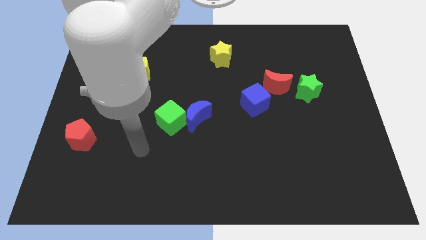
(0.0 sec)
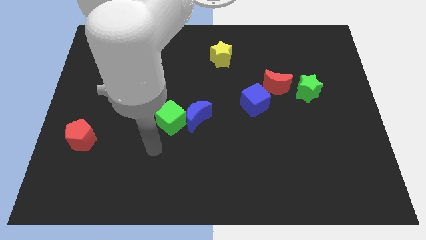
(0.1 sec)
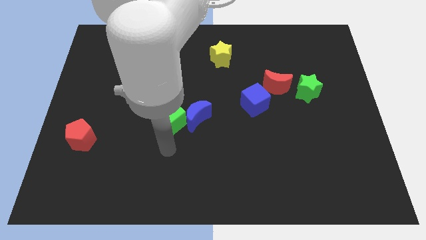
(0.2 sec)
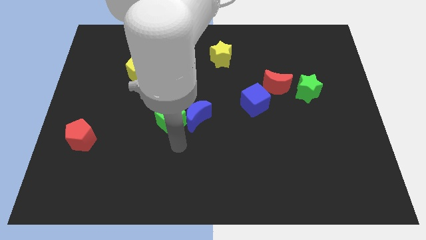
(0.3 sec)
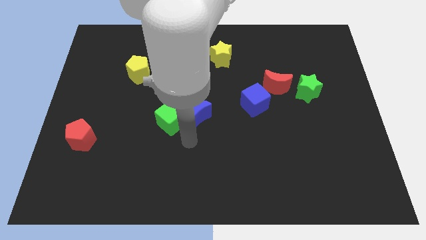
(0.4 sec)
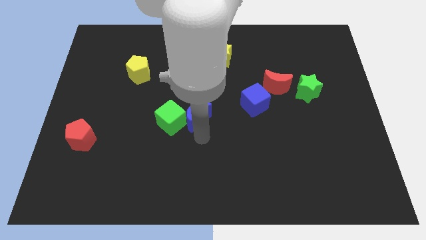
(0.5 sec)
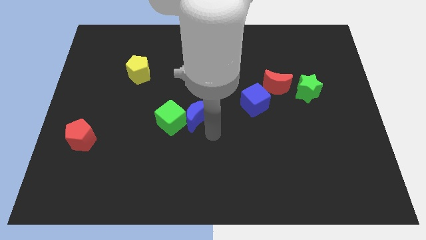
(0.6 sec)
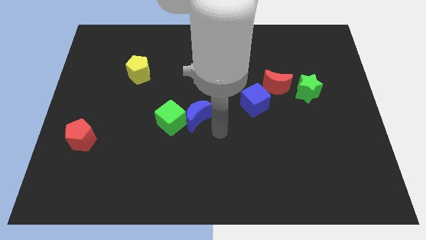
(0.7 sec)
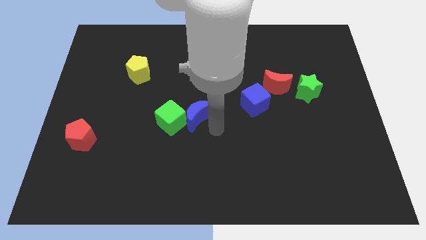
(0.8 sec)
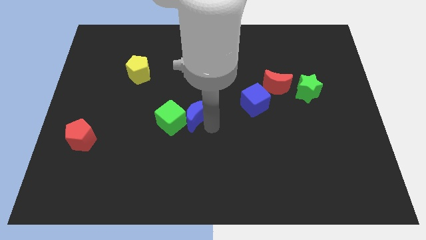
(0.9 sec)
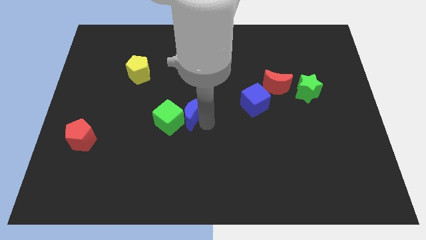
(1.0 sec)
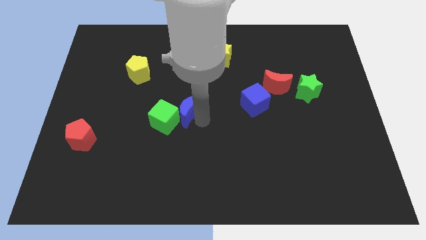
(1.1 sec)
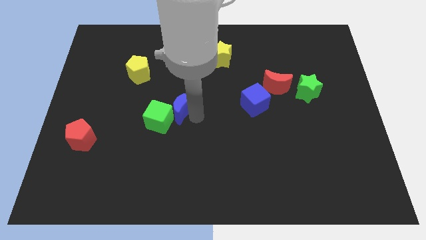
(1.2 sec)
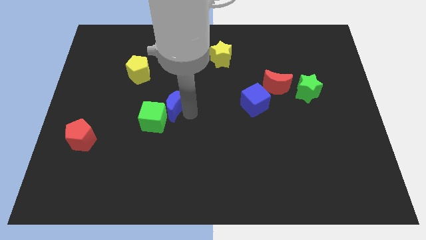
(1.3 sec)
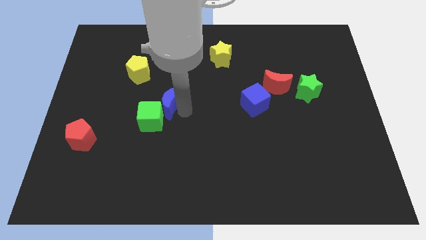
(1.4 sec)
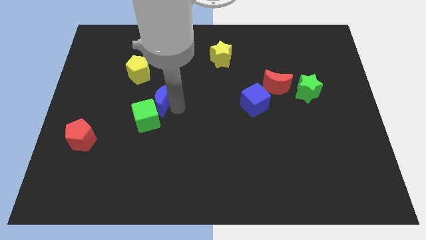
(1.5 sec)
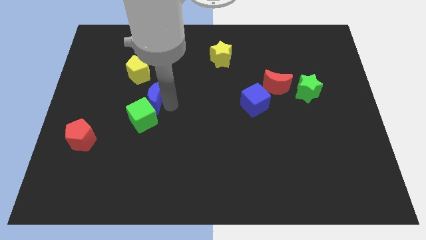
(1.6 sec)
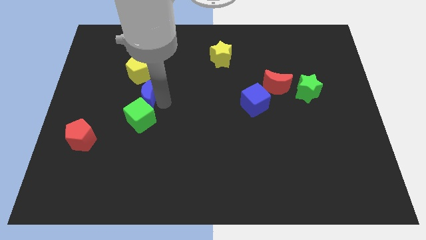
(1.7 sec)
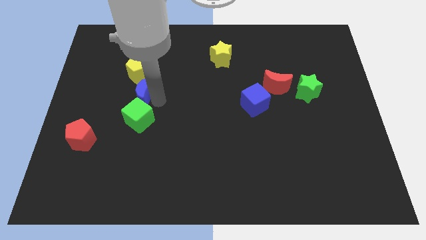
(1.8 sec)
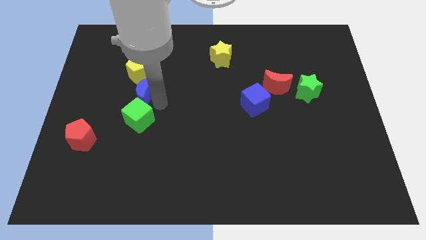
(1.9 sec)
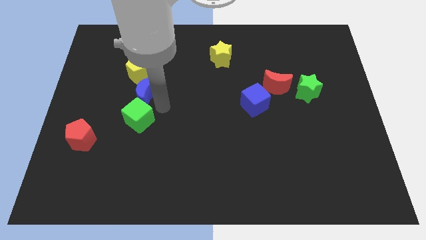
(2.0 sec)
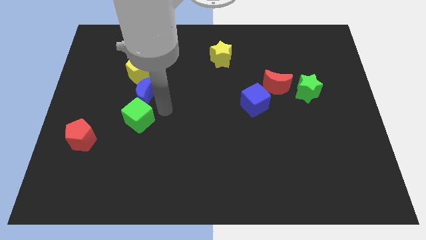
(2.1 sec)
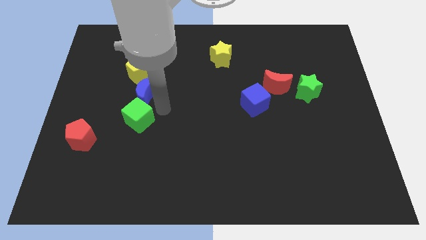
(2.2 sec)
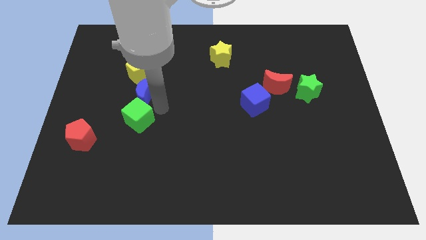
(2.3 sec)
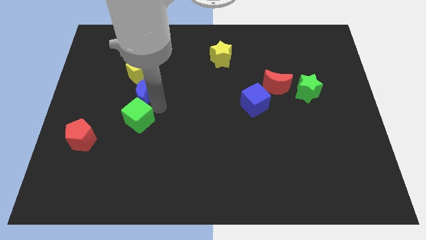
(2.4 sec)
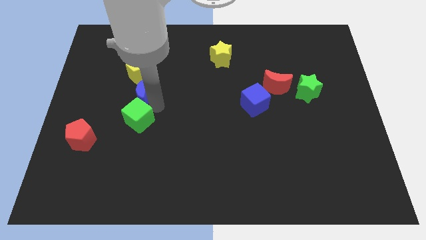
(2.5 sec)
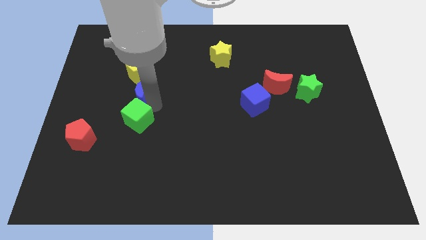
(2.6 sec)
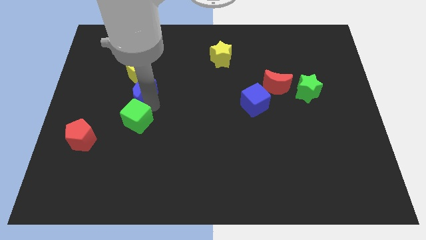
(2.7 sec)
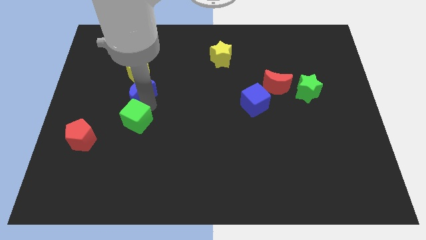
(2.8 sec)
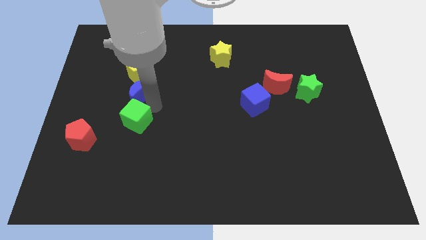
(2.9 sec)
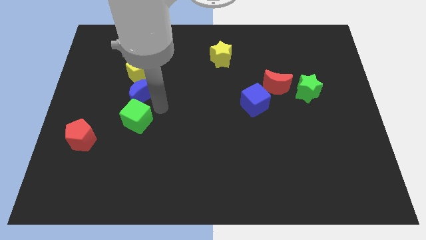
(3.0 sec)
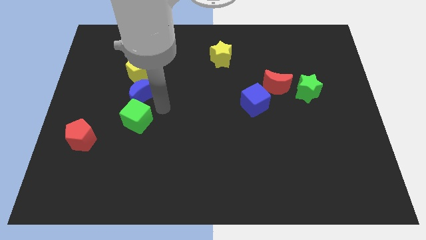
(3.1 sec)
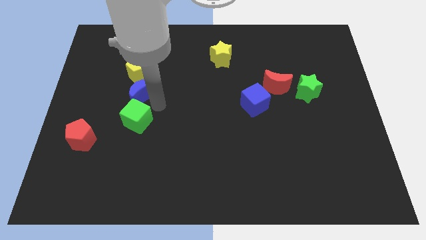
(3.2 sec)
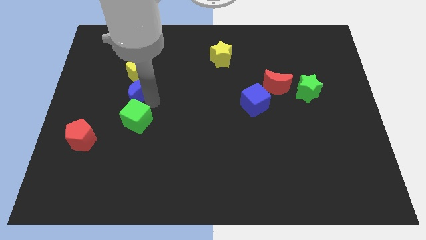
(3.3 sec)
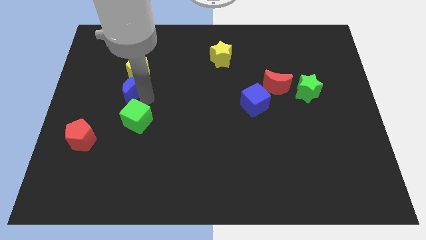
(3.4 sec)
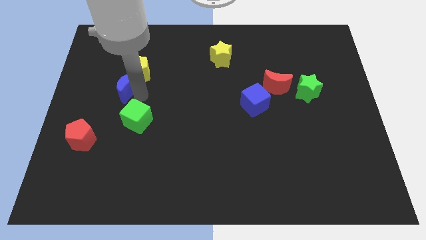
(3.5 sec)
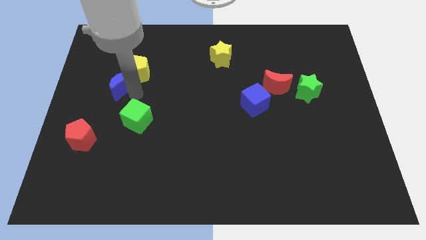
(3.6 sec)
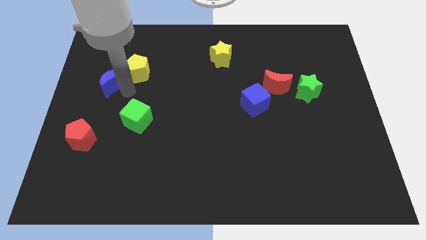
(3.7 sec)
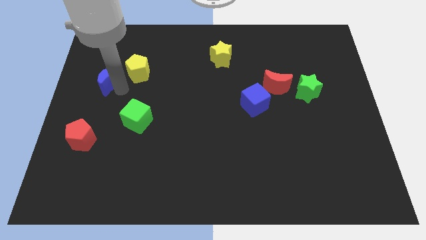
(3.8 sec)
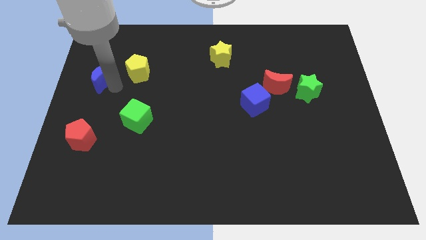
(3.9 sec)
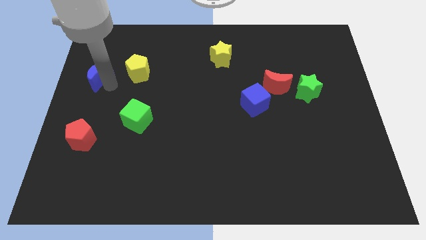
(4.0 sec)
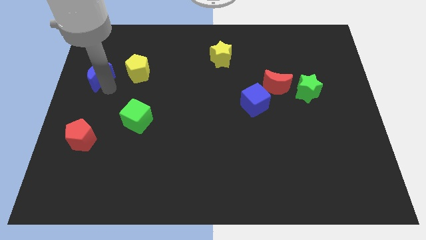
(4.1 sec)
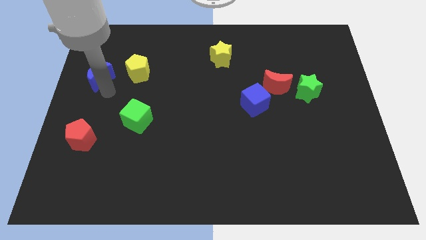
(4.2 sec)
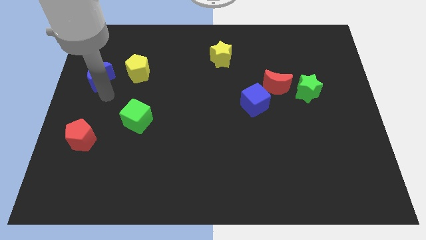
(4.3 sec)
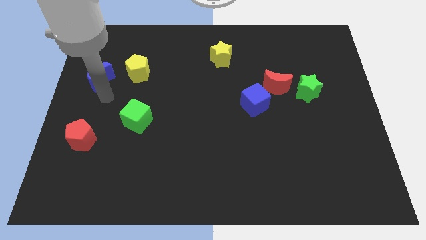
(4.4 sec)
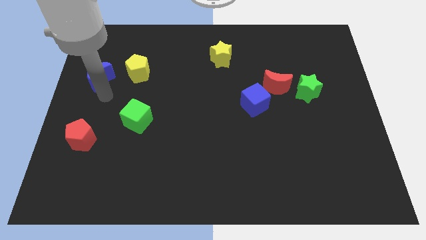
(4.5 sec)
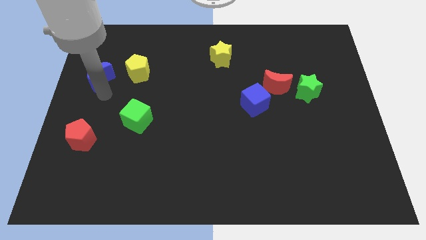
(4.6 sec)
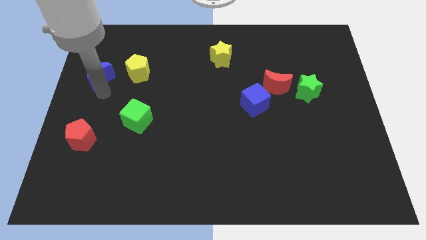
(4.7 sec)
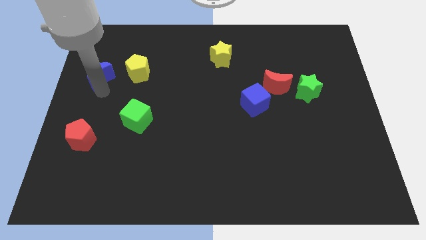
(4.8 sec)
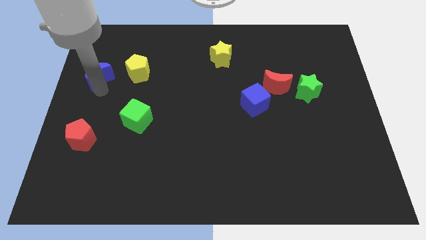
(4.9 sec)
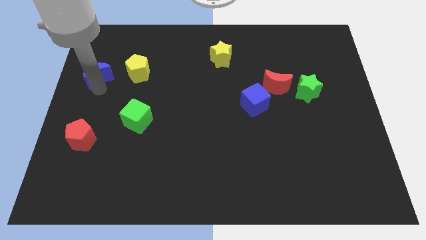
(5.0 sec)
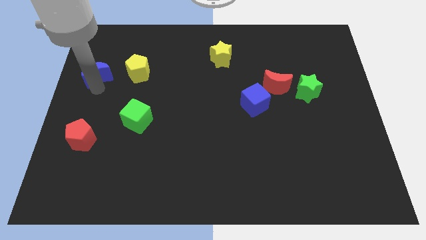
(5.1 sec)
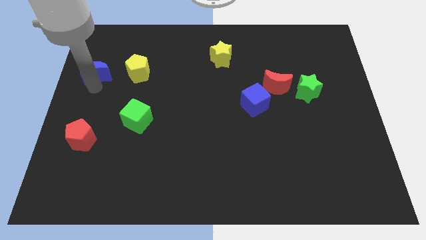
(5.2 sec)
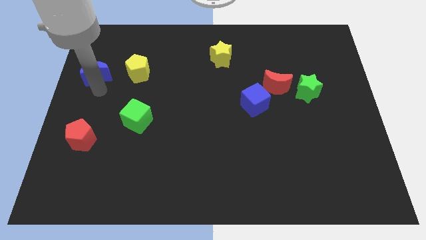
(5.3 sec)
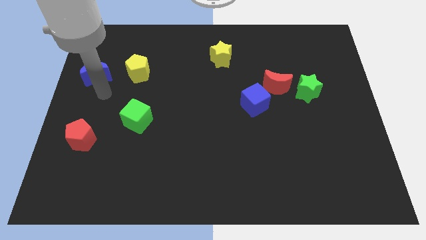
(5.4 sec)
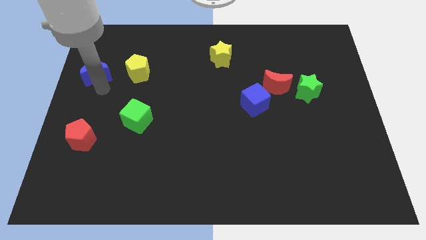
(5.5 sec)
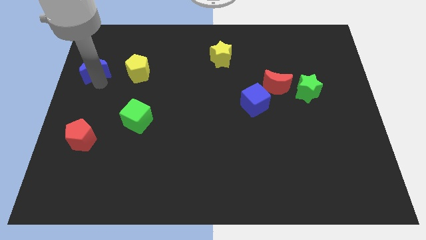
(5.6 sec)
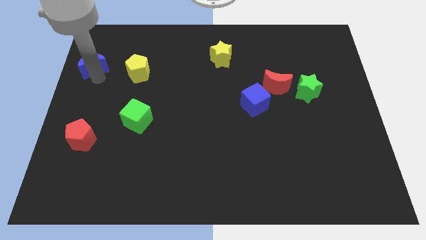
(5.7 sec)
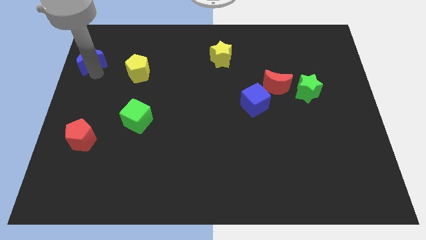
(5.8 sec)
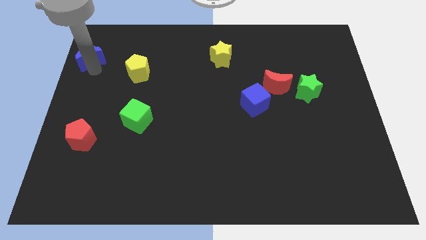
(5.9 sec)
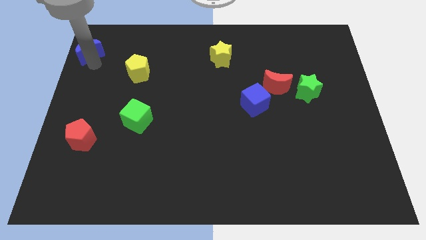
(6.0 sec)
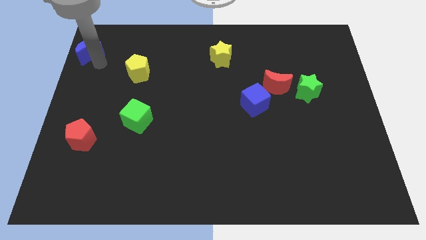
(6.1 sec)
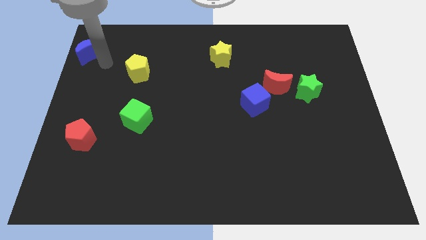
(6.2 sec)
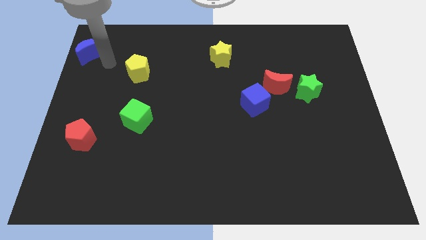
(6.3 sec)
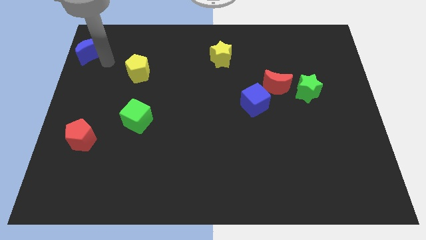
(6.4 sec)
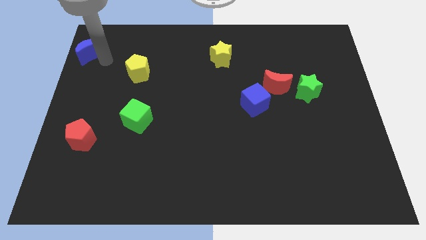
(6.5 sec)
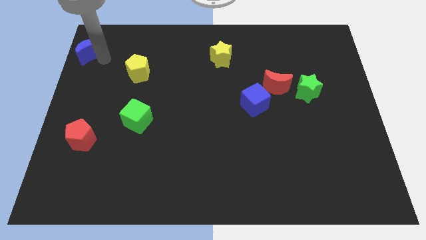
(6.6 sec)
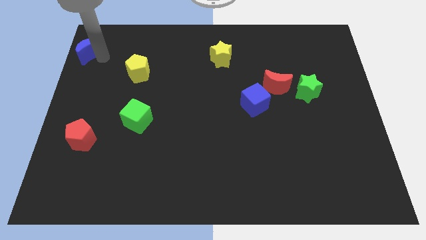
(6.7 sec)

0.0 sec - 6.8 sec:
slide the blue moon to the top left corner

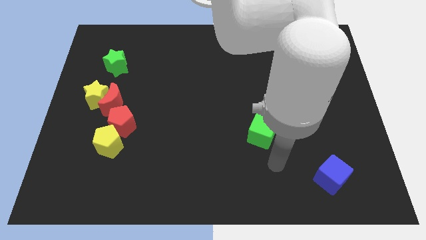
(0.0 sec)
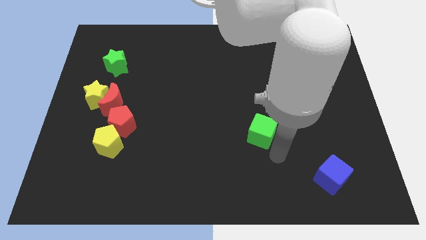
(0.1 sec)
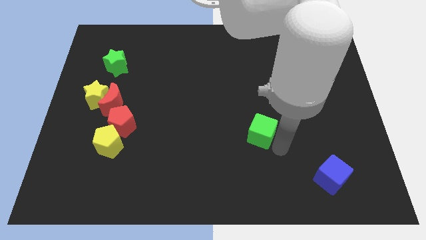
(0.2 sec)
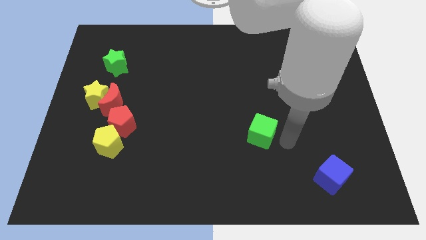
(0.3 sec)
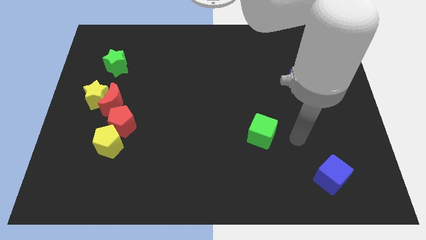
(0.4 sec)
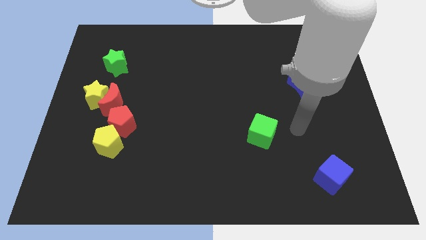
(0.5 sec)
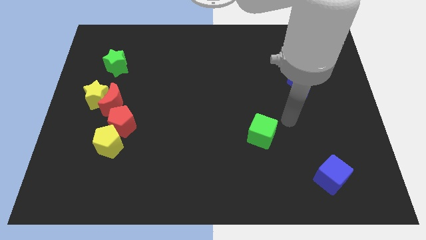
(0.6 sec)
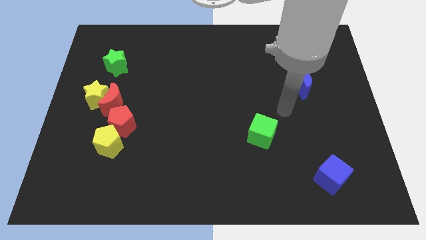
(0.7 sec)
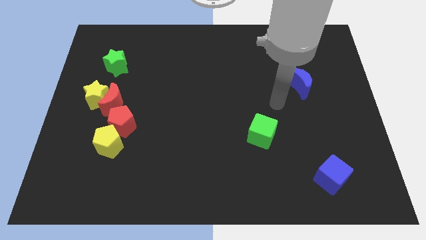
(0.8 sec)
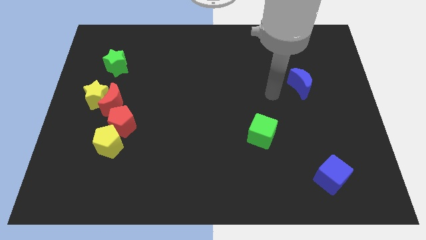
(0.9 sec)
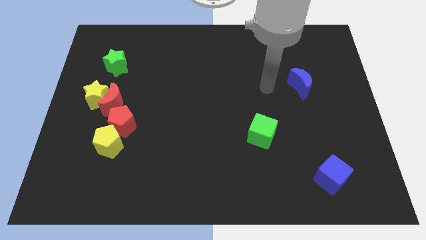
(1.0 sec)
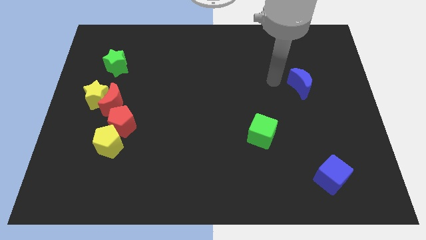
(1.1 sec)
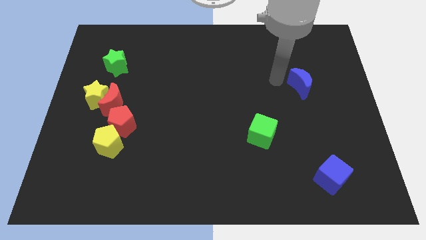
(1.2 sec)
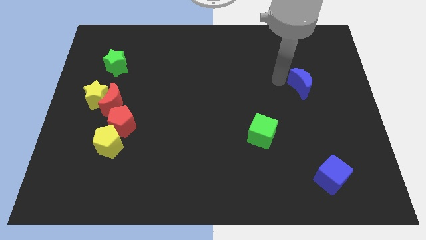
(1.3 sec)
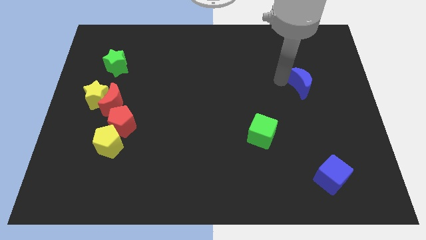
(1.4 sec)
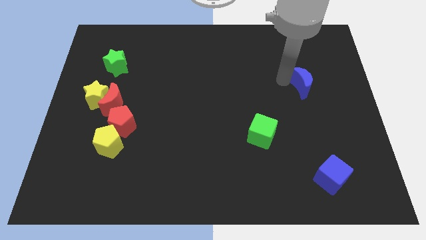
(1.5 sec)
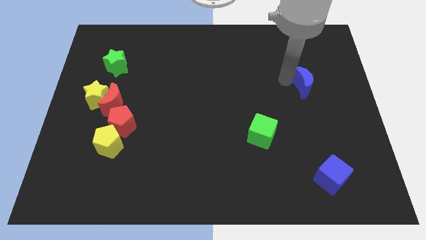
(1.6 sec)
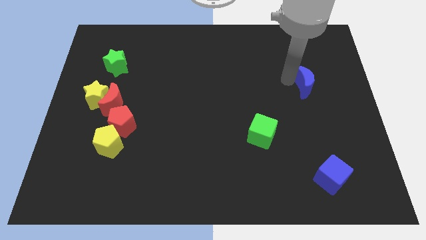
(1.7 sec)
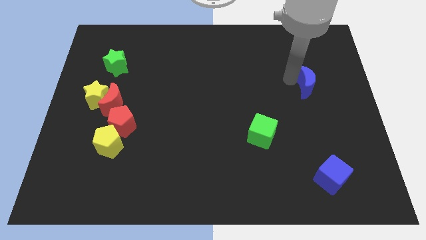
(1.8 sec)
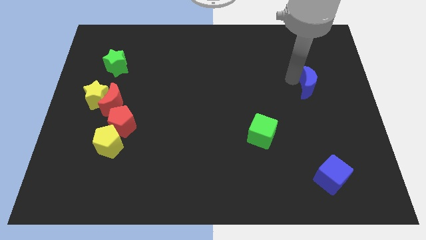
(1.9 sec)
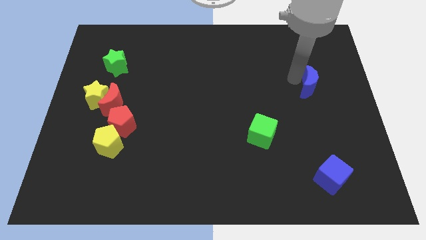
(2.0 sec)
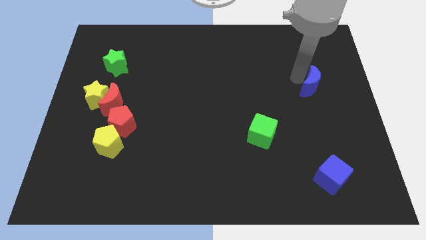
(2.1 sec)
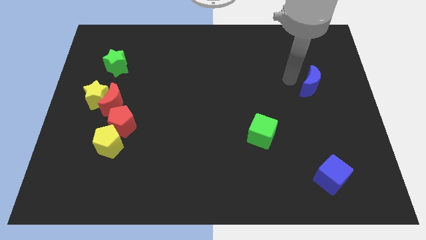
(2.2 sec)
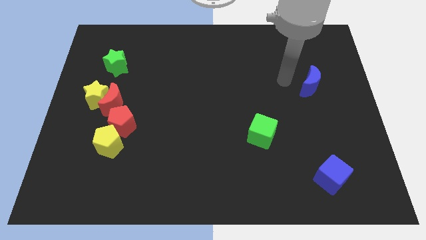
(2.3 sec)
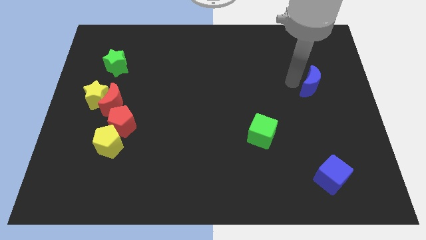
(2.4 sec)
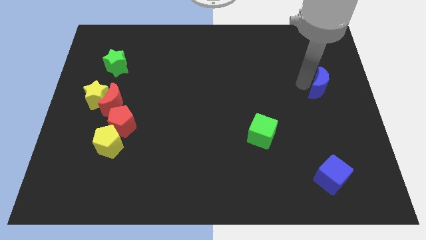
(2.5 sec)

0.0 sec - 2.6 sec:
put the blue moon to the center right
